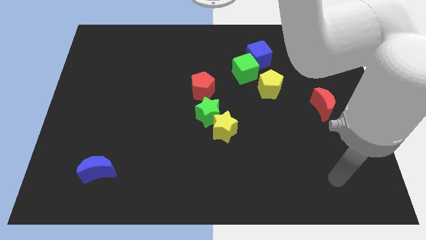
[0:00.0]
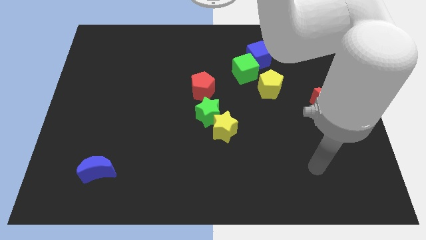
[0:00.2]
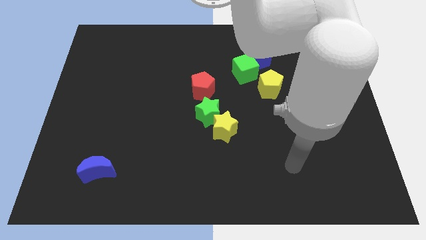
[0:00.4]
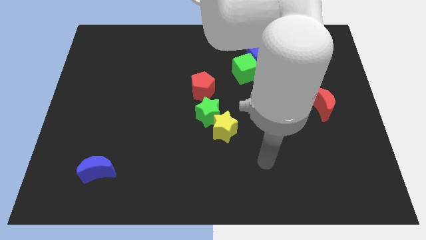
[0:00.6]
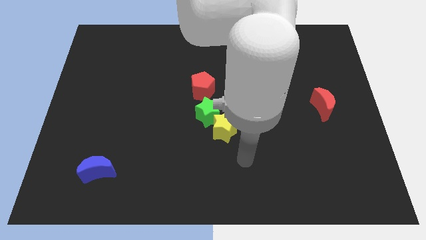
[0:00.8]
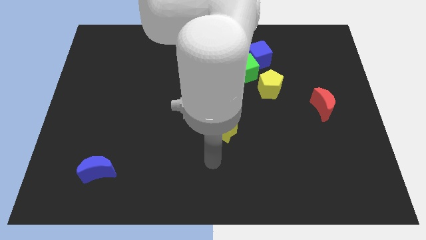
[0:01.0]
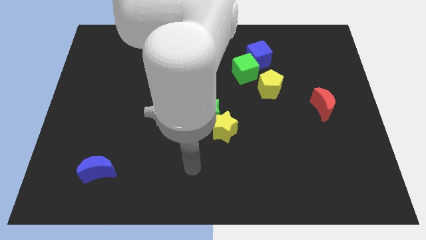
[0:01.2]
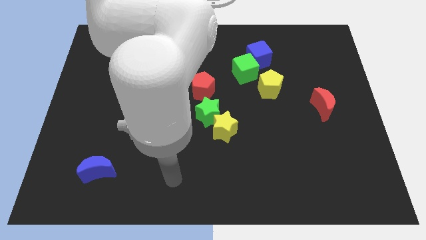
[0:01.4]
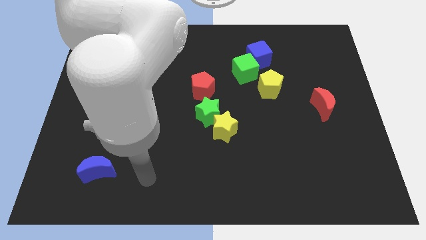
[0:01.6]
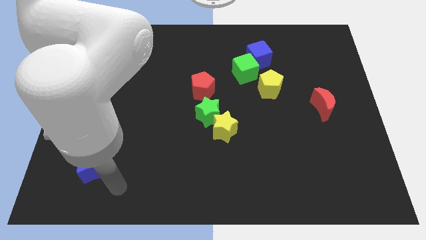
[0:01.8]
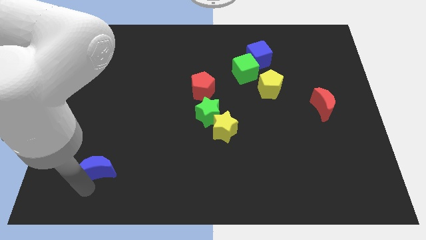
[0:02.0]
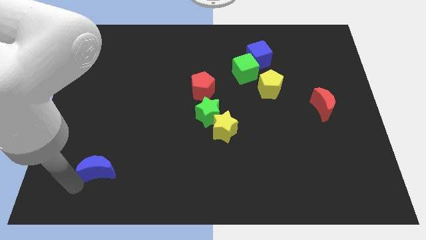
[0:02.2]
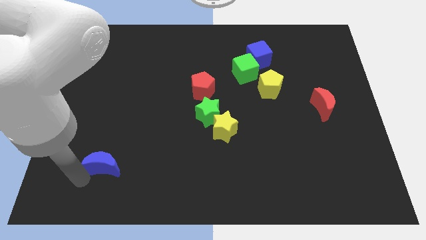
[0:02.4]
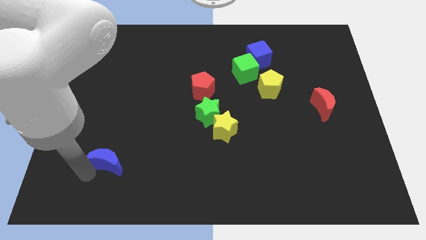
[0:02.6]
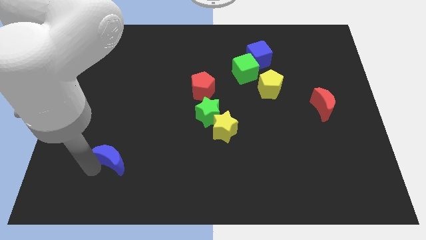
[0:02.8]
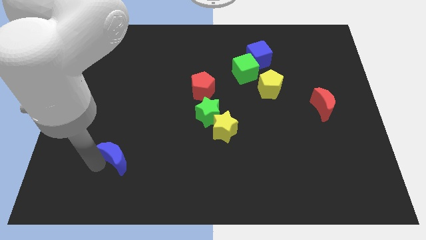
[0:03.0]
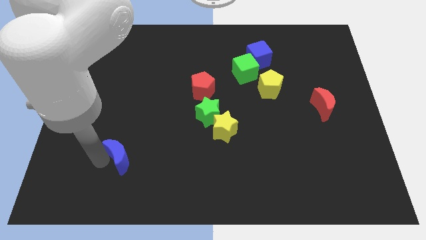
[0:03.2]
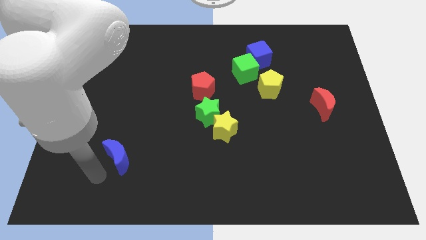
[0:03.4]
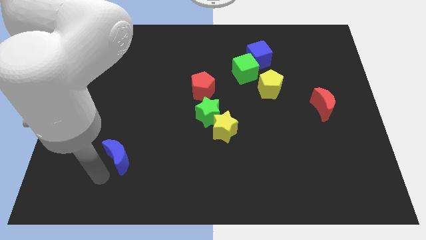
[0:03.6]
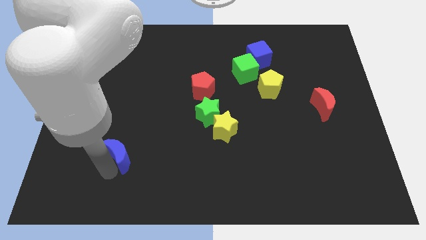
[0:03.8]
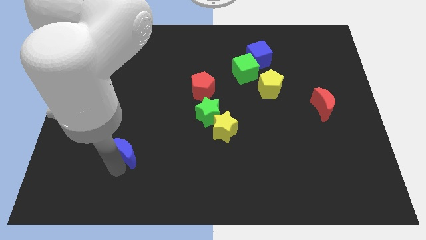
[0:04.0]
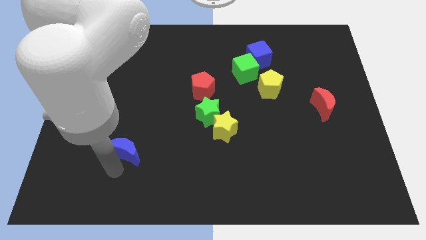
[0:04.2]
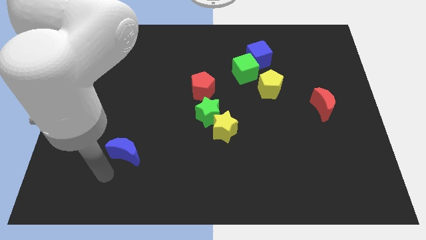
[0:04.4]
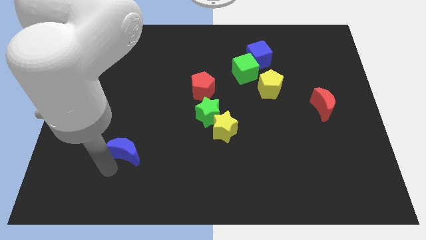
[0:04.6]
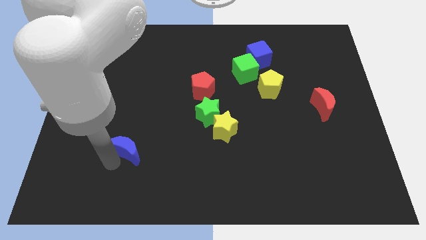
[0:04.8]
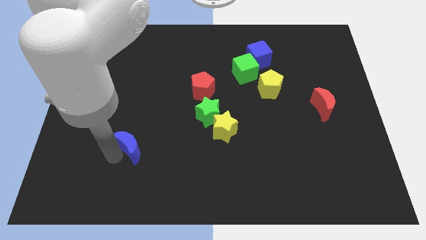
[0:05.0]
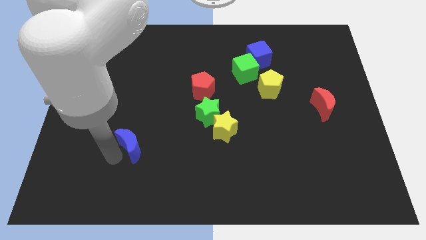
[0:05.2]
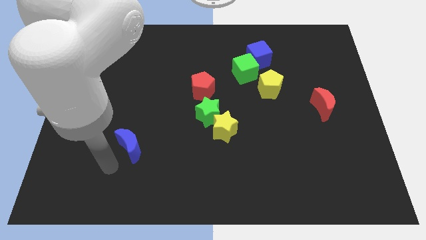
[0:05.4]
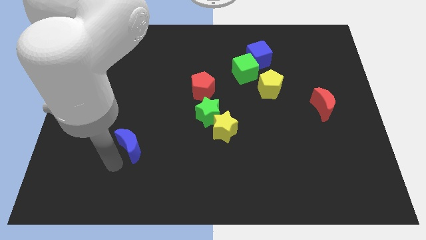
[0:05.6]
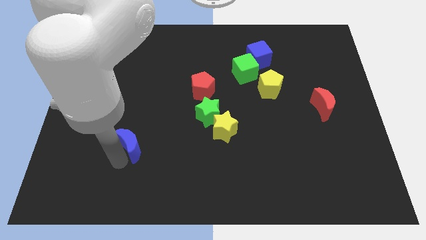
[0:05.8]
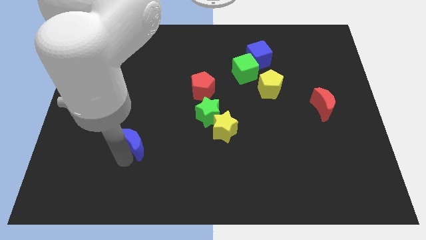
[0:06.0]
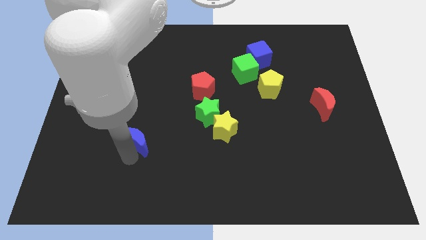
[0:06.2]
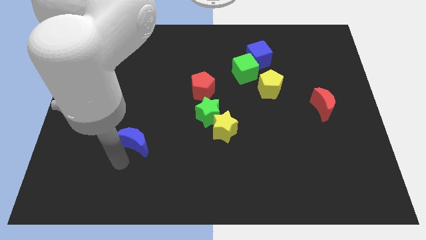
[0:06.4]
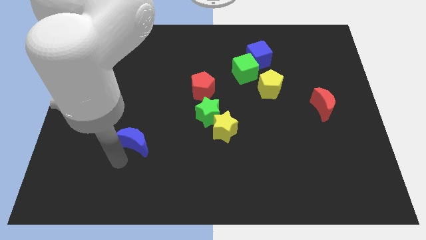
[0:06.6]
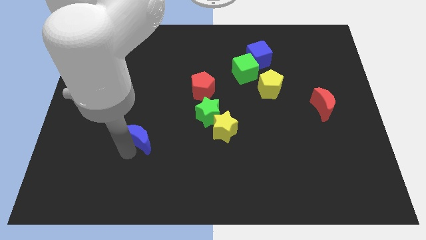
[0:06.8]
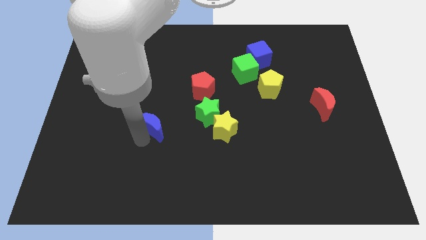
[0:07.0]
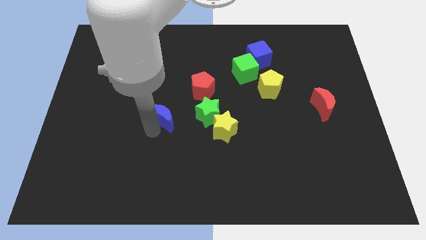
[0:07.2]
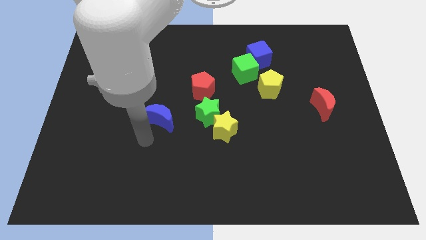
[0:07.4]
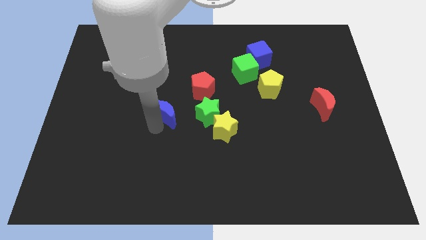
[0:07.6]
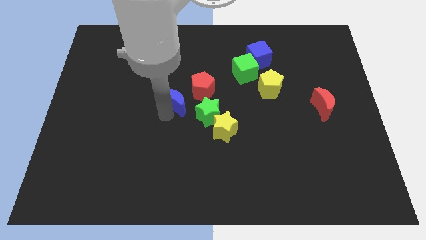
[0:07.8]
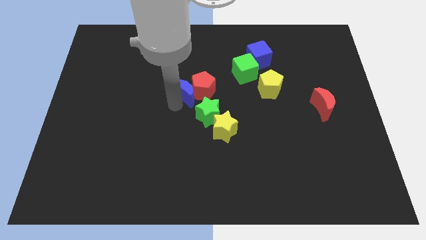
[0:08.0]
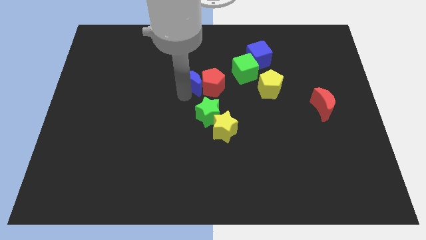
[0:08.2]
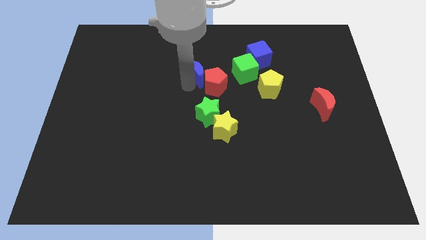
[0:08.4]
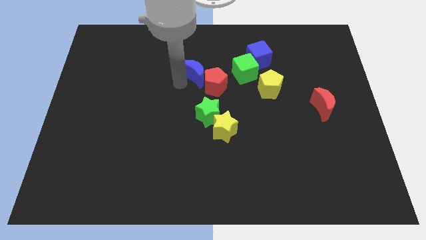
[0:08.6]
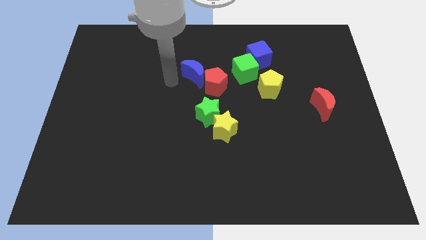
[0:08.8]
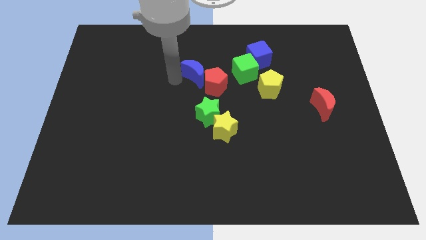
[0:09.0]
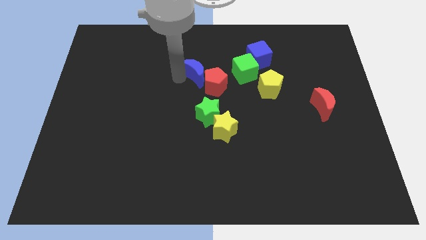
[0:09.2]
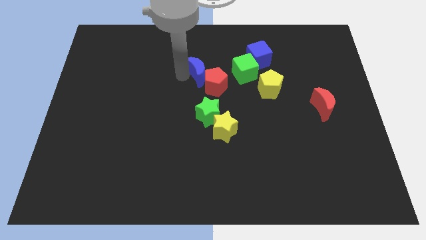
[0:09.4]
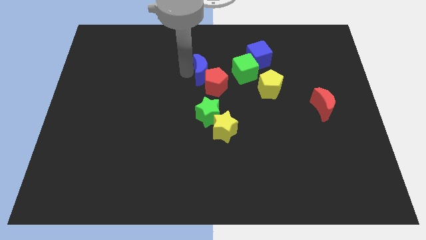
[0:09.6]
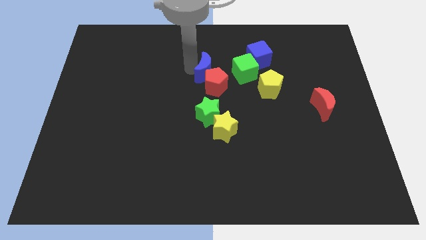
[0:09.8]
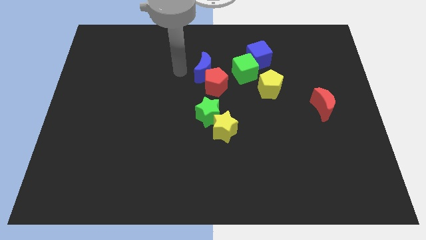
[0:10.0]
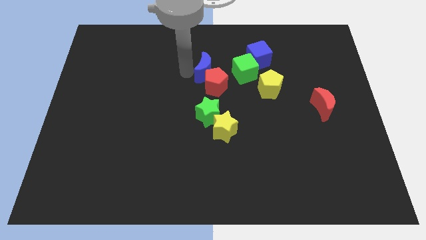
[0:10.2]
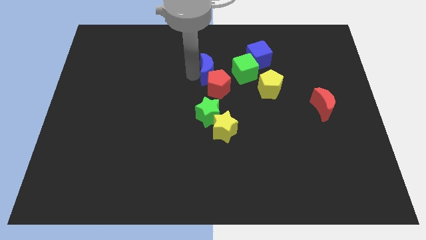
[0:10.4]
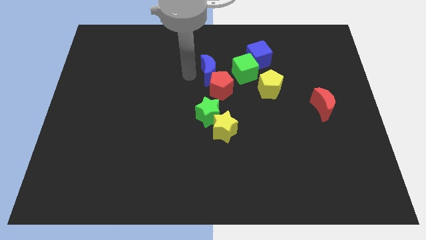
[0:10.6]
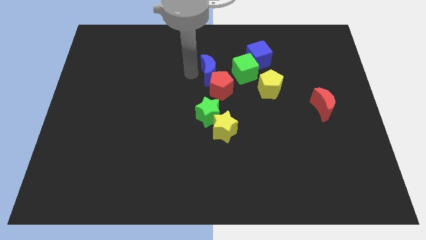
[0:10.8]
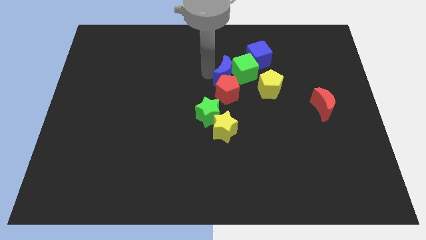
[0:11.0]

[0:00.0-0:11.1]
move the blue moon next to the green cube

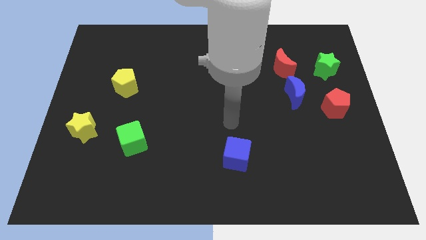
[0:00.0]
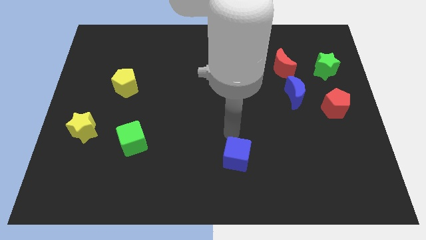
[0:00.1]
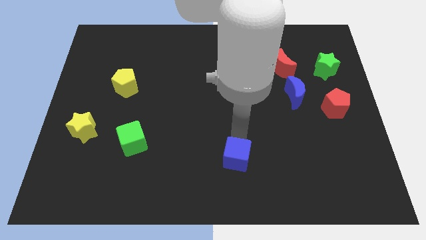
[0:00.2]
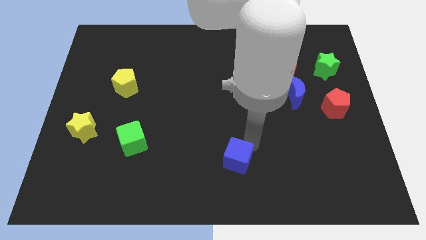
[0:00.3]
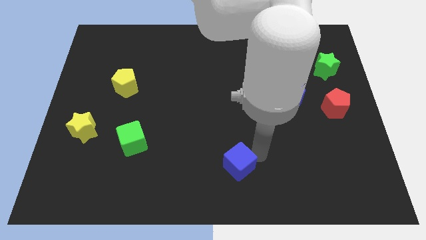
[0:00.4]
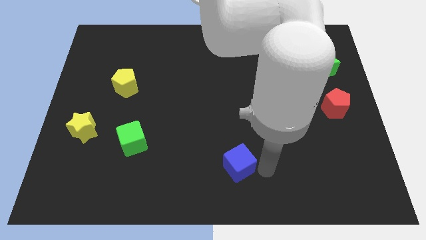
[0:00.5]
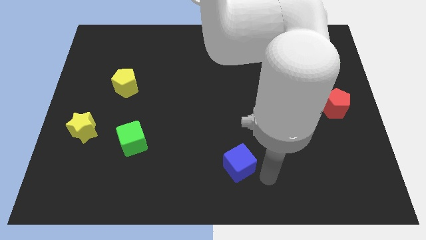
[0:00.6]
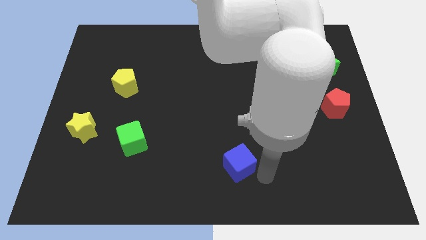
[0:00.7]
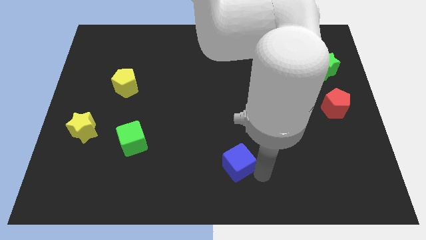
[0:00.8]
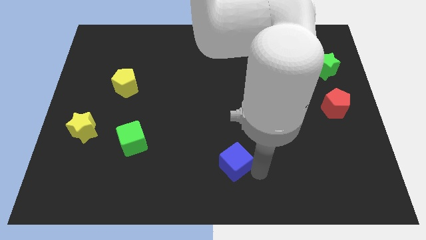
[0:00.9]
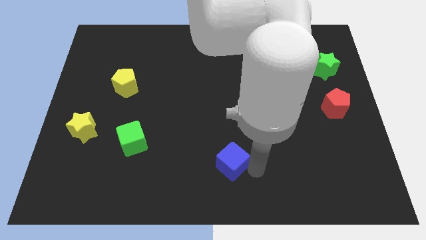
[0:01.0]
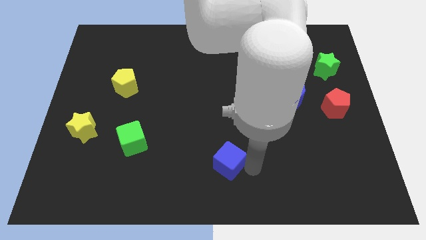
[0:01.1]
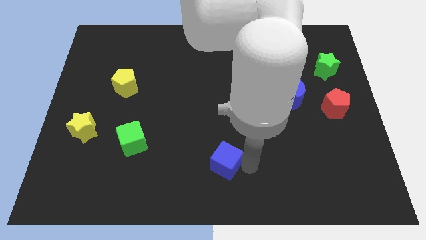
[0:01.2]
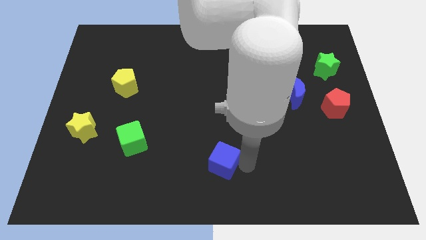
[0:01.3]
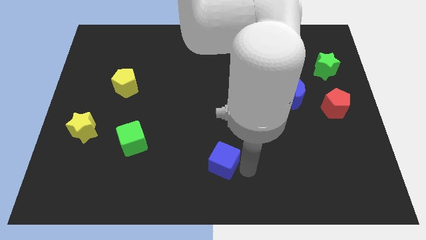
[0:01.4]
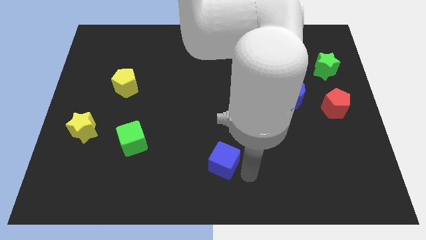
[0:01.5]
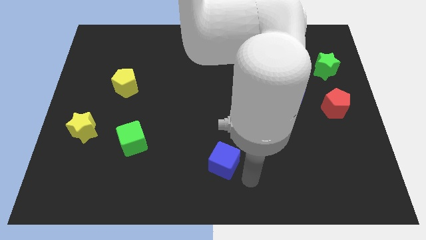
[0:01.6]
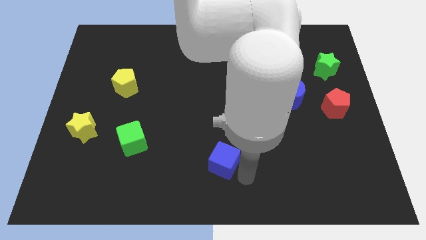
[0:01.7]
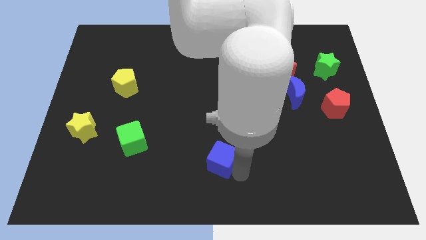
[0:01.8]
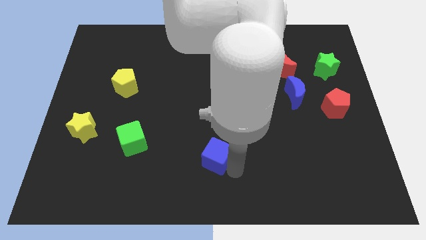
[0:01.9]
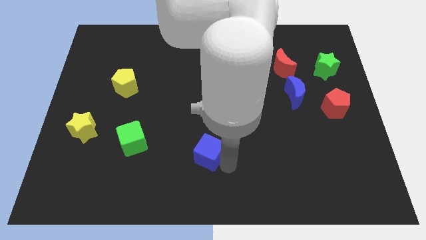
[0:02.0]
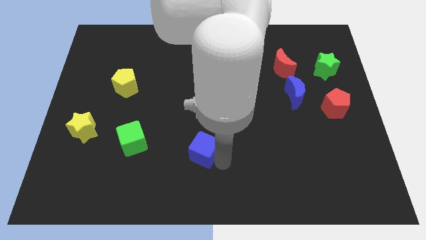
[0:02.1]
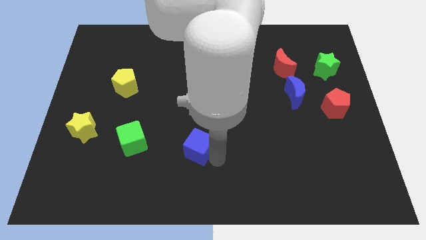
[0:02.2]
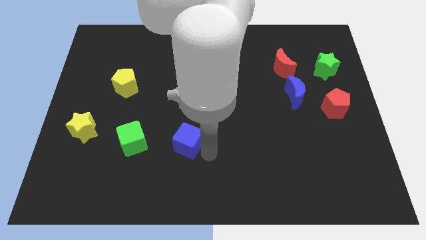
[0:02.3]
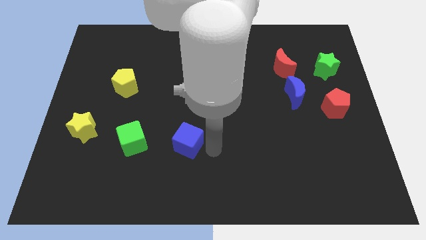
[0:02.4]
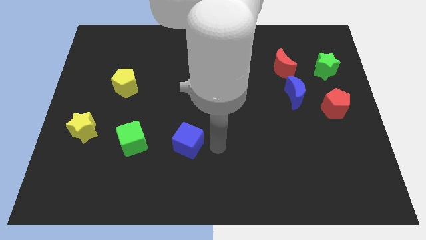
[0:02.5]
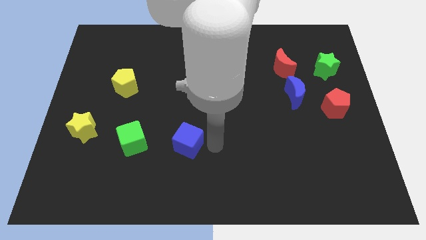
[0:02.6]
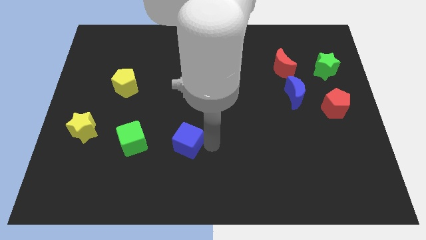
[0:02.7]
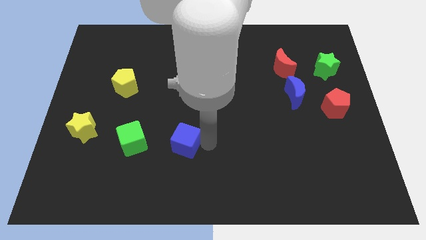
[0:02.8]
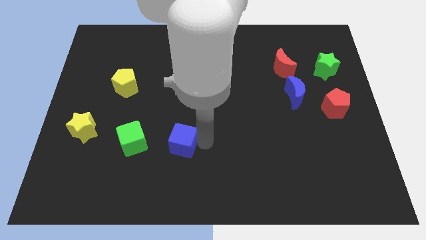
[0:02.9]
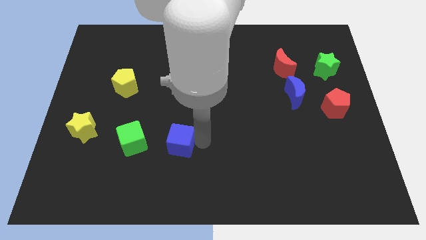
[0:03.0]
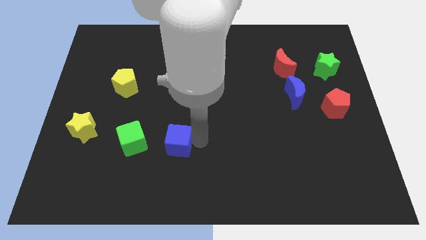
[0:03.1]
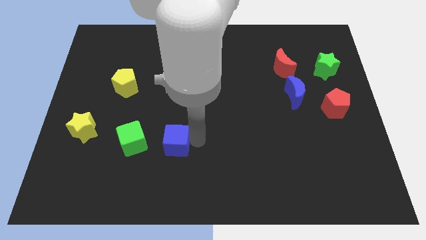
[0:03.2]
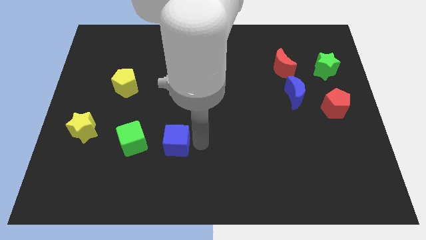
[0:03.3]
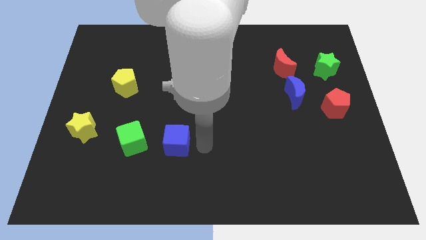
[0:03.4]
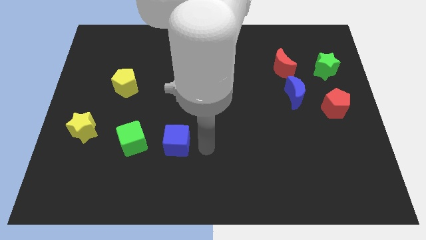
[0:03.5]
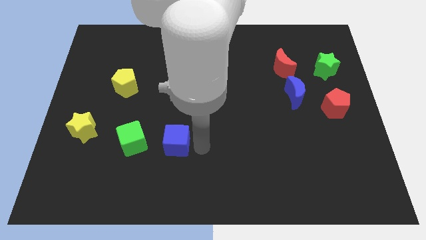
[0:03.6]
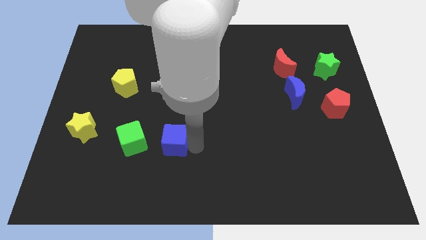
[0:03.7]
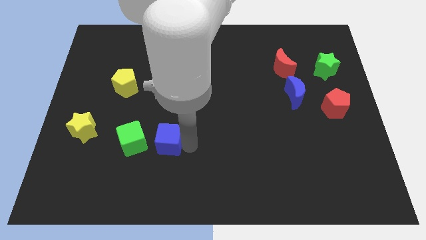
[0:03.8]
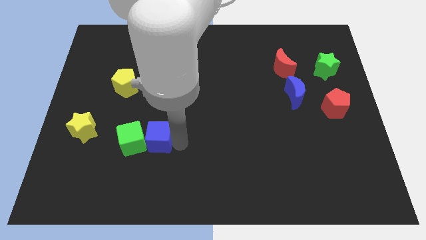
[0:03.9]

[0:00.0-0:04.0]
put the blue cube towards the green cube
